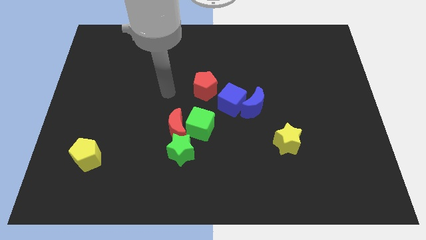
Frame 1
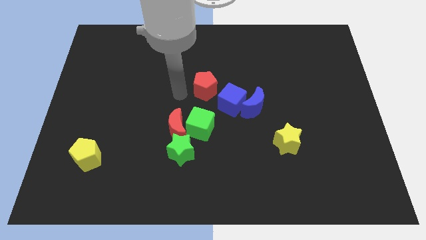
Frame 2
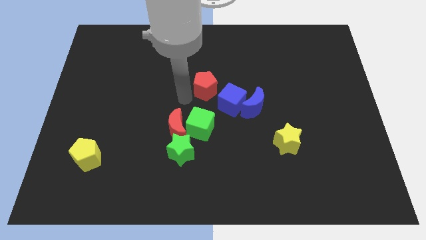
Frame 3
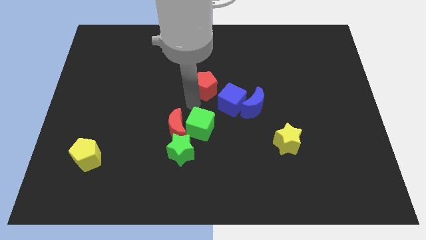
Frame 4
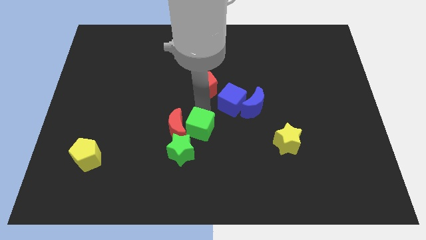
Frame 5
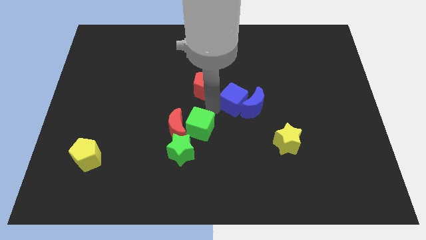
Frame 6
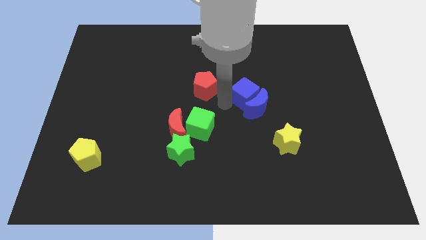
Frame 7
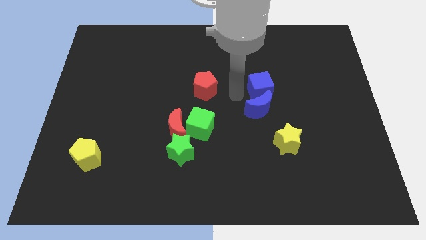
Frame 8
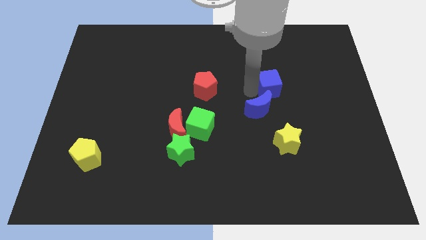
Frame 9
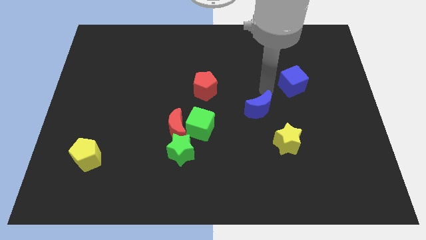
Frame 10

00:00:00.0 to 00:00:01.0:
pull the blue moon apart from the blue cube

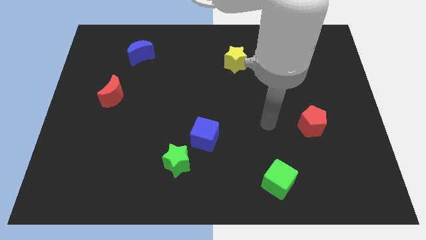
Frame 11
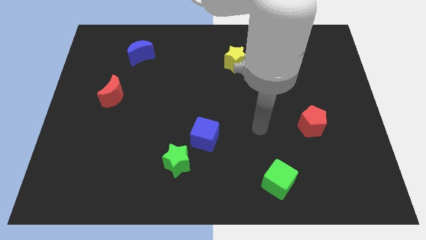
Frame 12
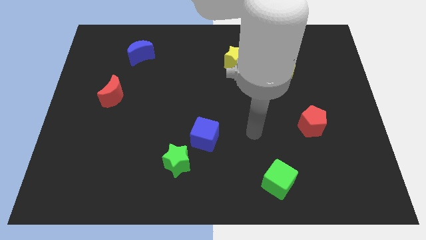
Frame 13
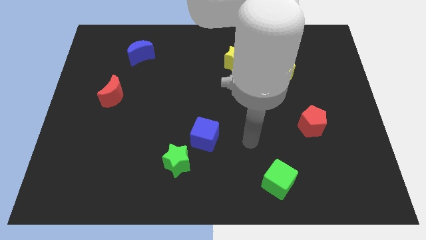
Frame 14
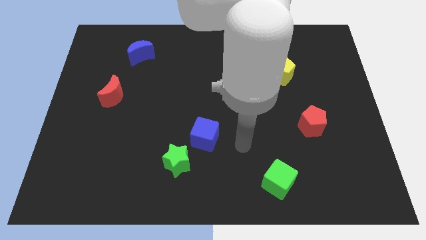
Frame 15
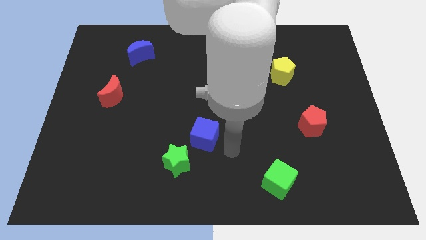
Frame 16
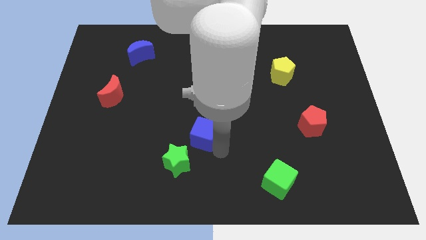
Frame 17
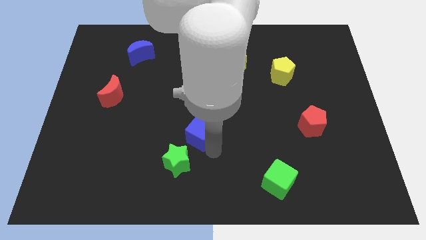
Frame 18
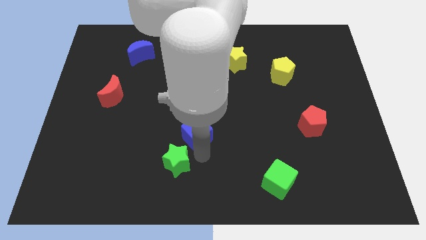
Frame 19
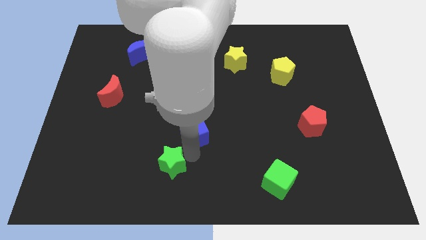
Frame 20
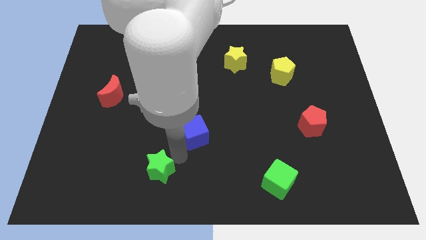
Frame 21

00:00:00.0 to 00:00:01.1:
separate the blue cube from the green star

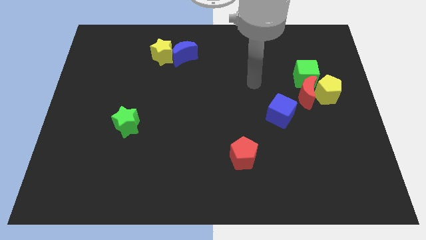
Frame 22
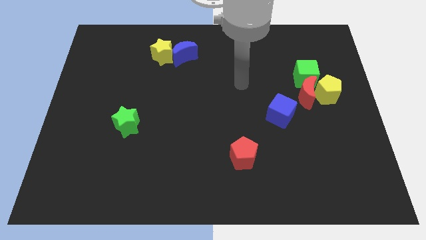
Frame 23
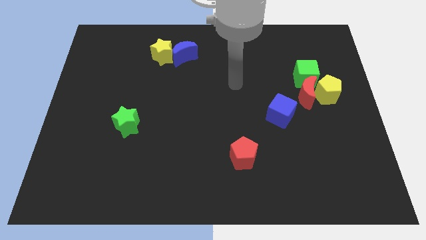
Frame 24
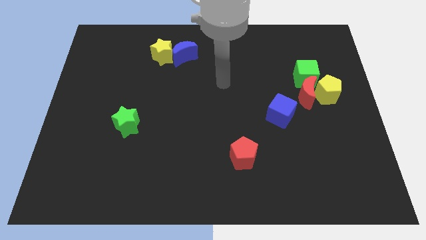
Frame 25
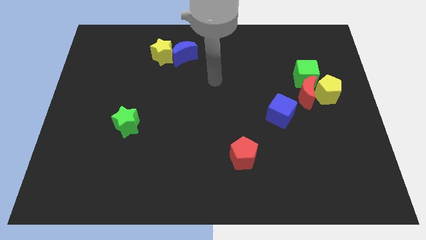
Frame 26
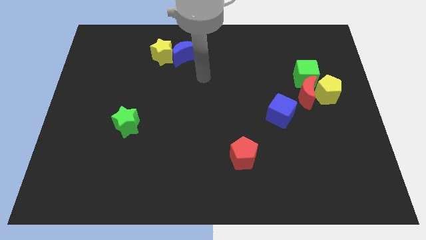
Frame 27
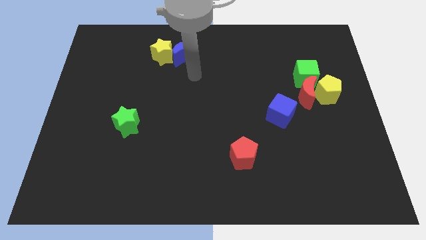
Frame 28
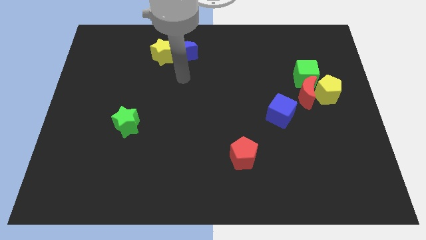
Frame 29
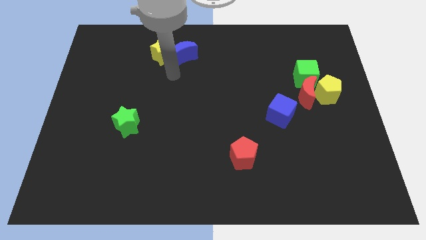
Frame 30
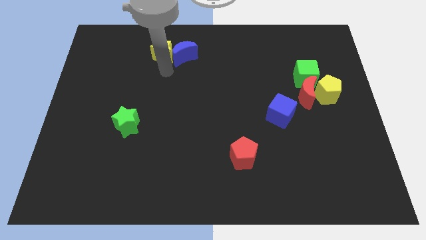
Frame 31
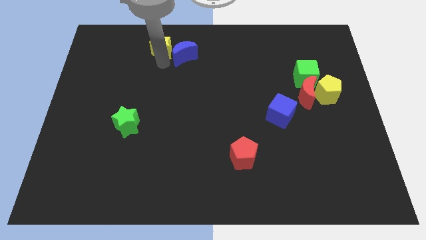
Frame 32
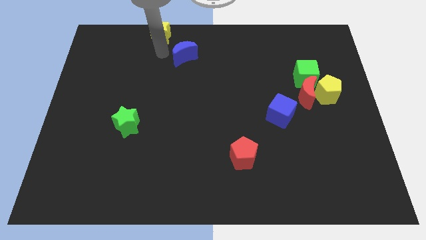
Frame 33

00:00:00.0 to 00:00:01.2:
separate the blue moon from the yellow star

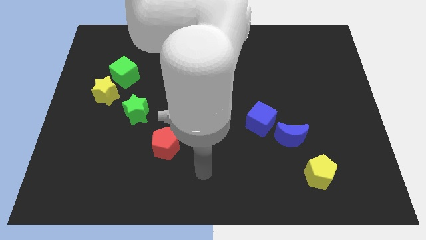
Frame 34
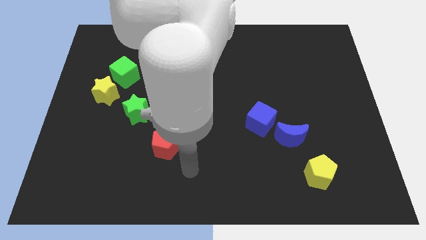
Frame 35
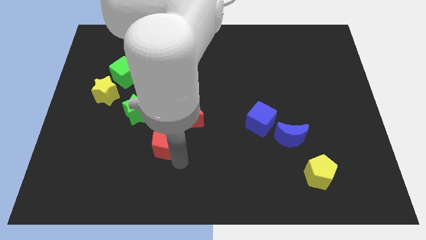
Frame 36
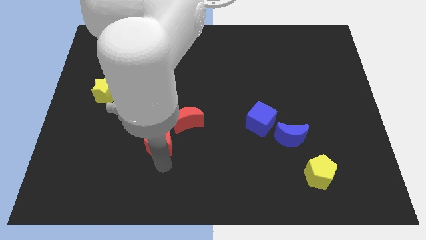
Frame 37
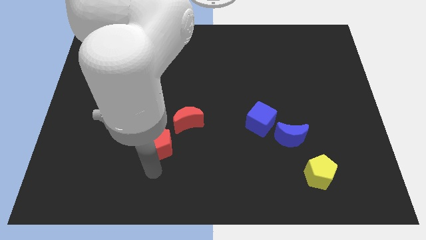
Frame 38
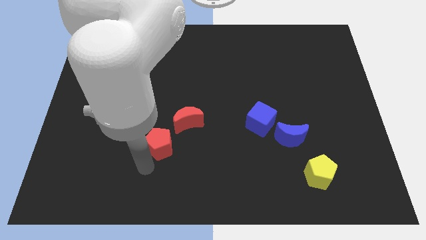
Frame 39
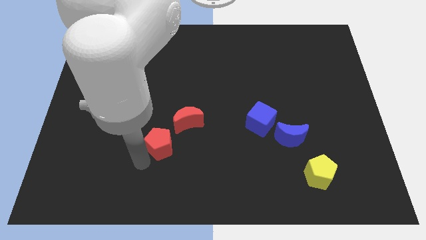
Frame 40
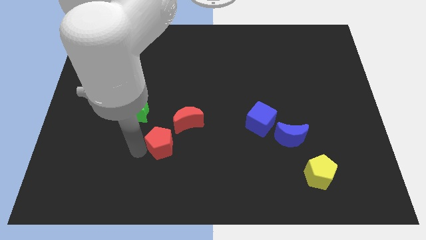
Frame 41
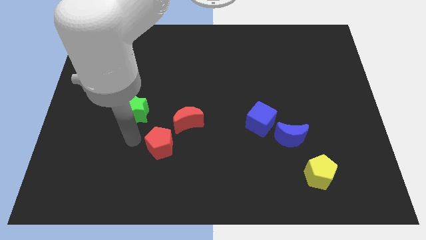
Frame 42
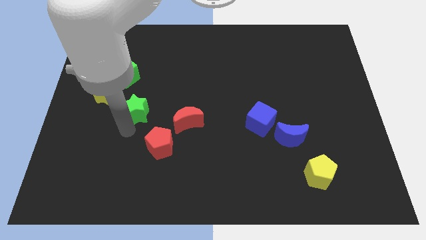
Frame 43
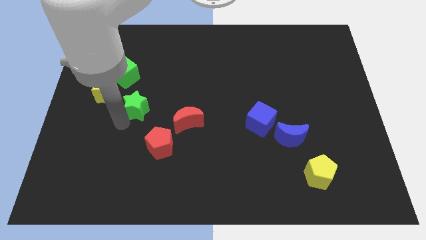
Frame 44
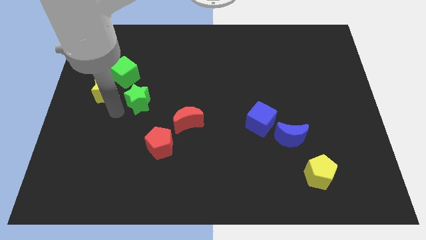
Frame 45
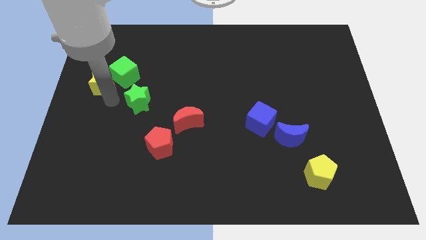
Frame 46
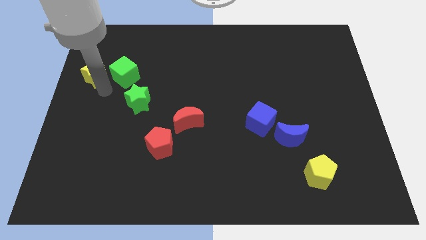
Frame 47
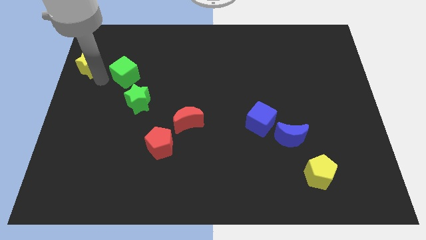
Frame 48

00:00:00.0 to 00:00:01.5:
separate the green cube from the yellow star

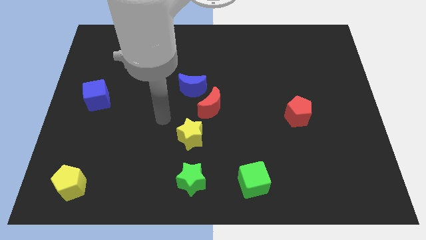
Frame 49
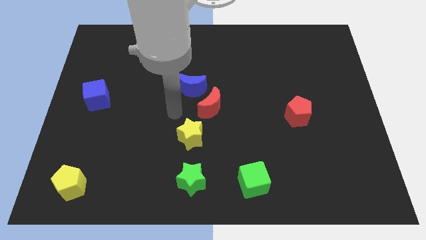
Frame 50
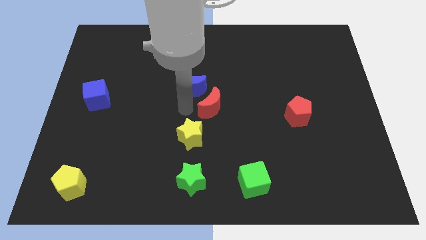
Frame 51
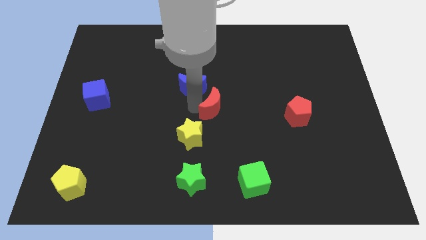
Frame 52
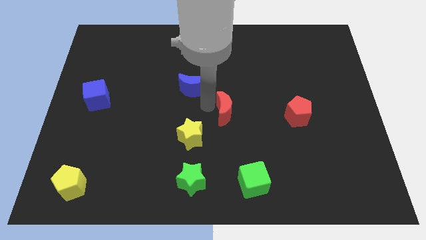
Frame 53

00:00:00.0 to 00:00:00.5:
pull the blue moon apart from the red moon

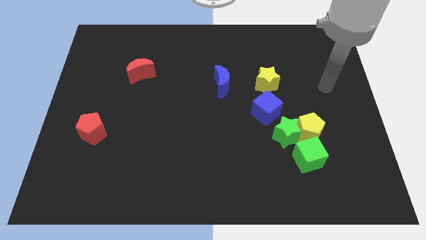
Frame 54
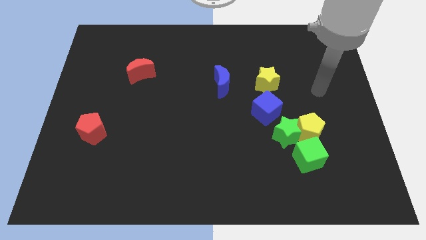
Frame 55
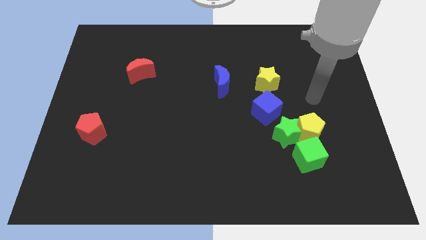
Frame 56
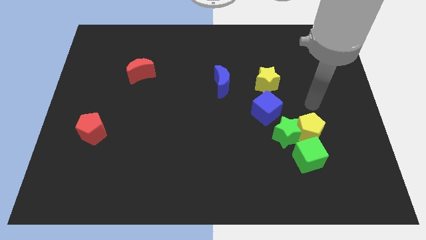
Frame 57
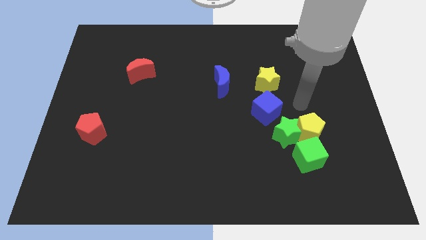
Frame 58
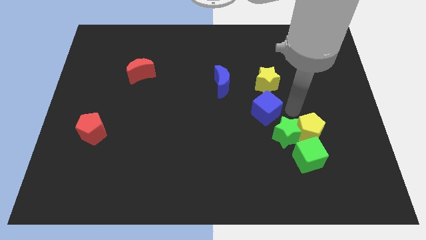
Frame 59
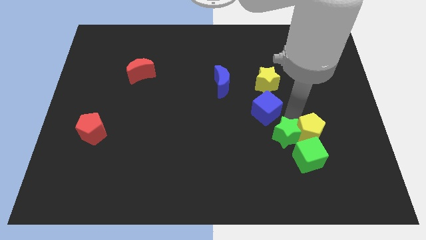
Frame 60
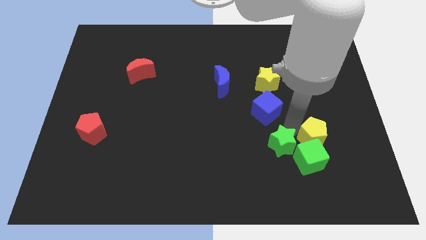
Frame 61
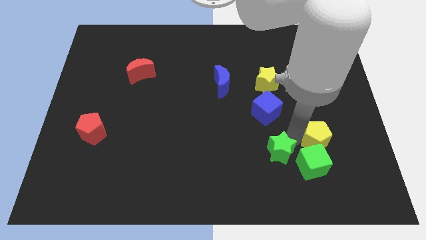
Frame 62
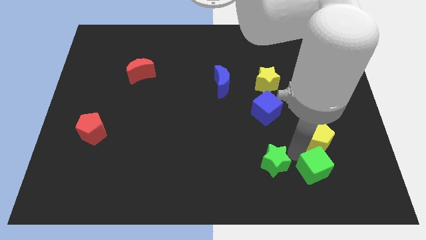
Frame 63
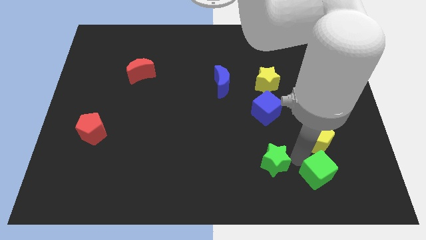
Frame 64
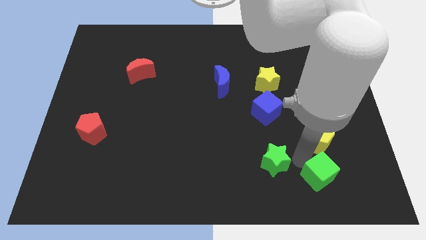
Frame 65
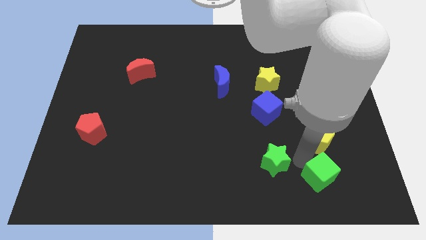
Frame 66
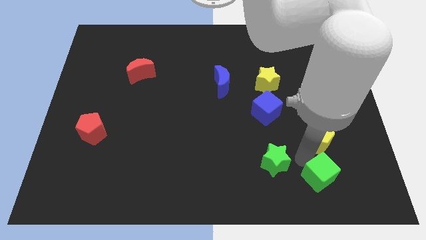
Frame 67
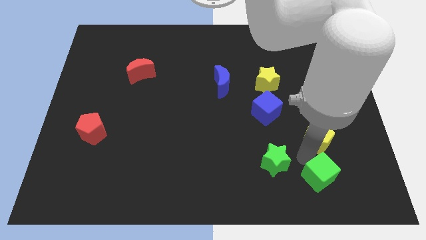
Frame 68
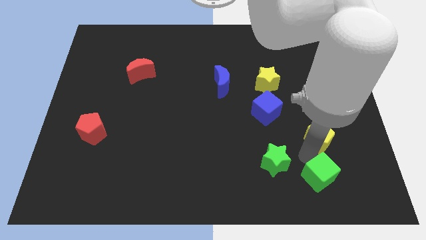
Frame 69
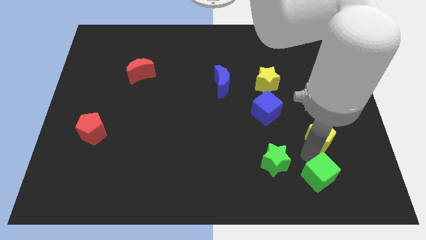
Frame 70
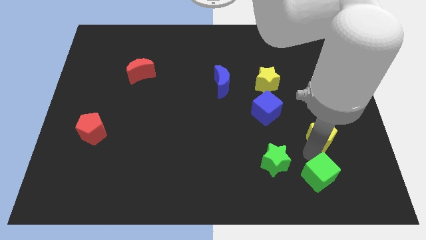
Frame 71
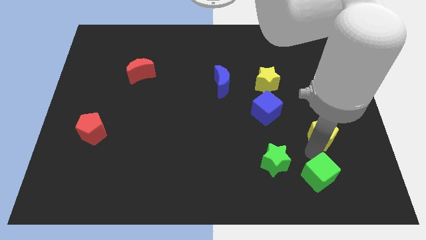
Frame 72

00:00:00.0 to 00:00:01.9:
move the yellow pentagon away from the green star and green cube

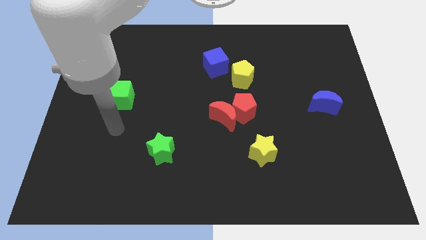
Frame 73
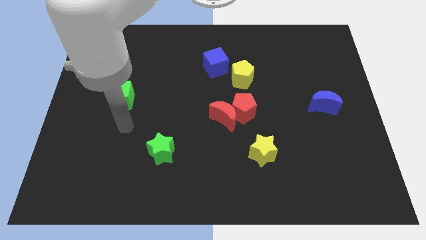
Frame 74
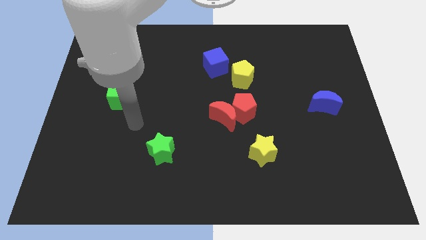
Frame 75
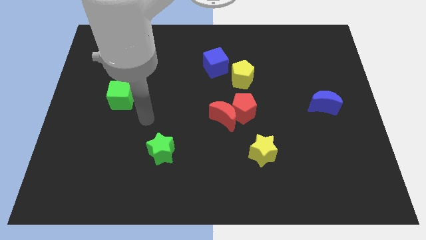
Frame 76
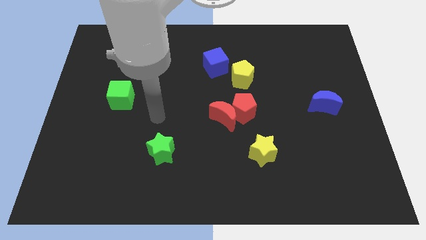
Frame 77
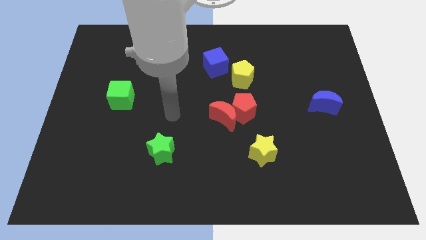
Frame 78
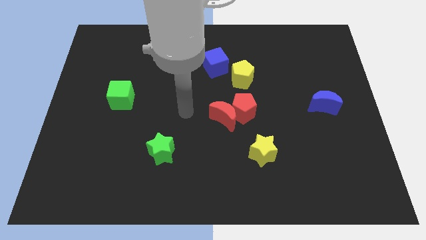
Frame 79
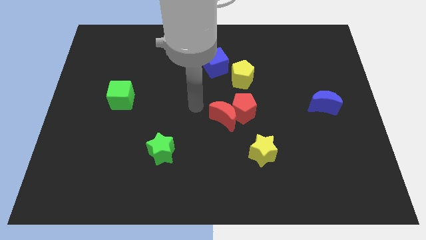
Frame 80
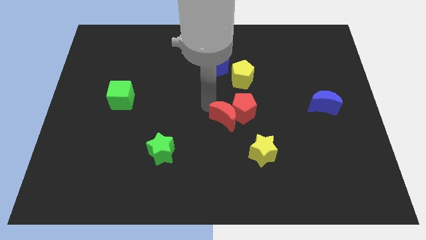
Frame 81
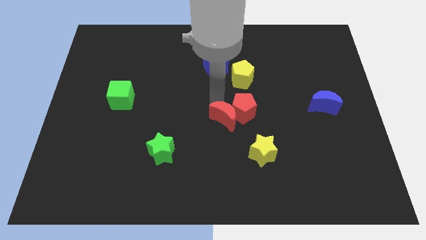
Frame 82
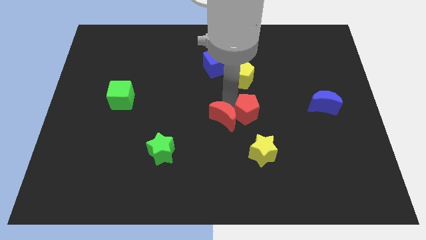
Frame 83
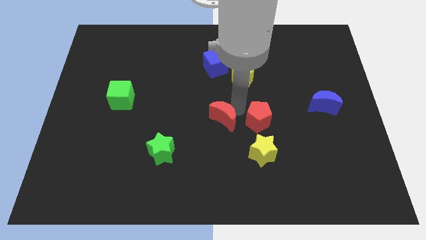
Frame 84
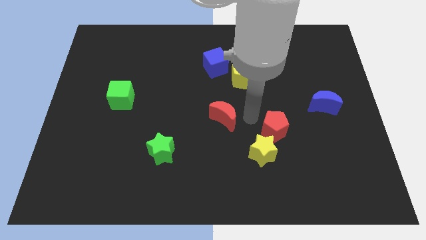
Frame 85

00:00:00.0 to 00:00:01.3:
separate the red moon from the red pentagon

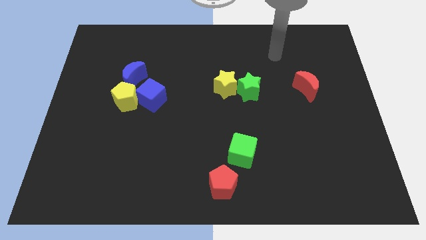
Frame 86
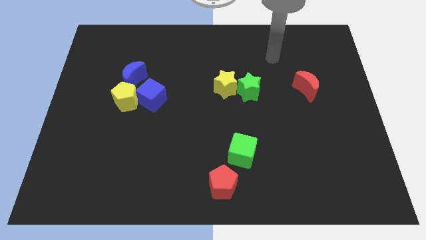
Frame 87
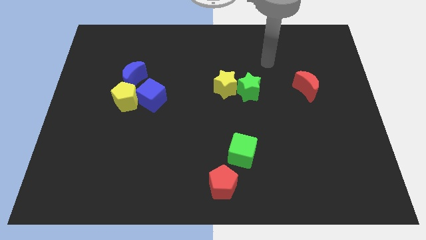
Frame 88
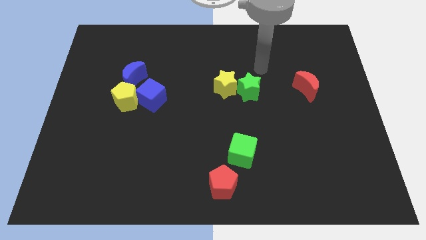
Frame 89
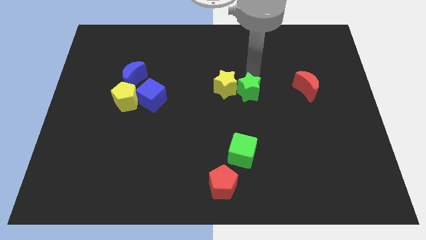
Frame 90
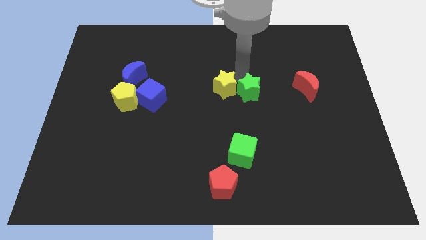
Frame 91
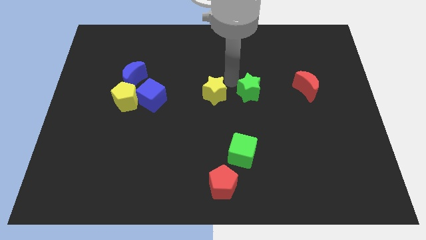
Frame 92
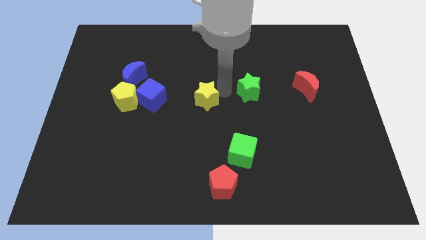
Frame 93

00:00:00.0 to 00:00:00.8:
move the green star away from the yellow star
